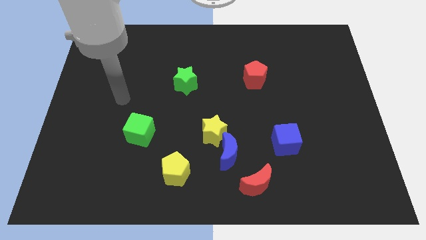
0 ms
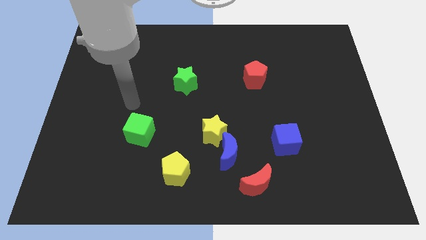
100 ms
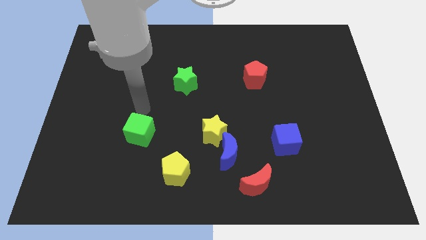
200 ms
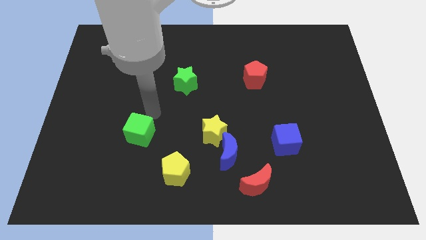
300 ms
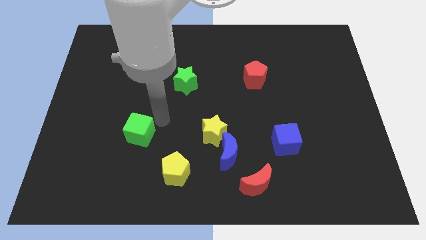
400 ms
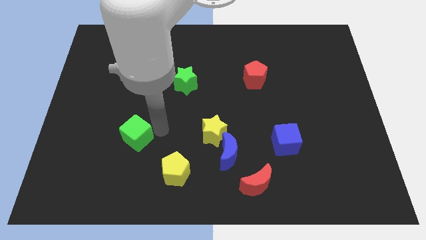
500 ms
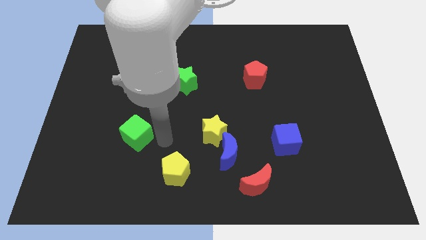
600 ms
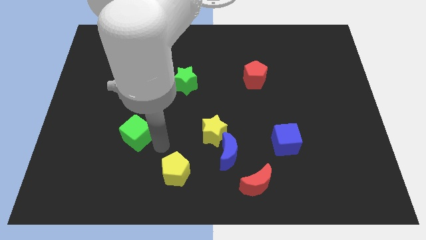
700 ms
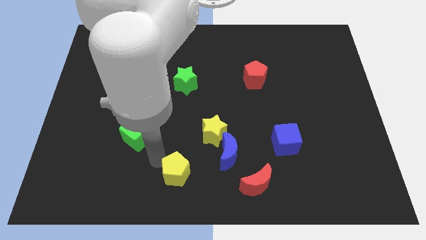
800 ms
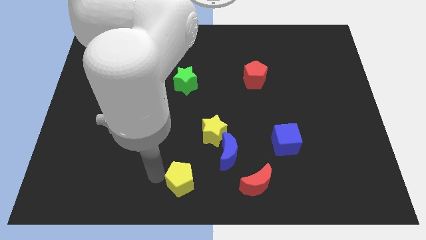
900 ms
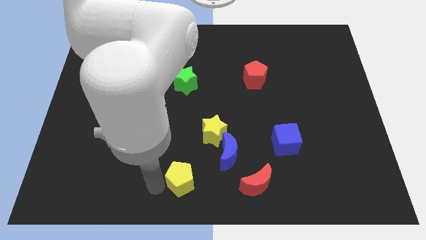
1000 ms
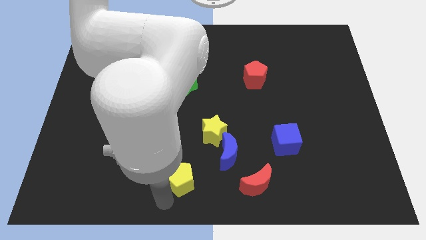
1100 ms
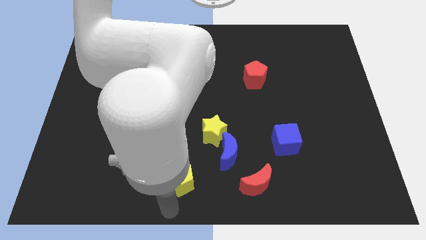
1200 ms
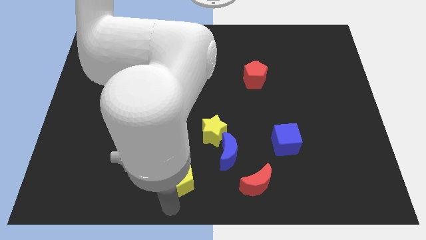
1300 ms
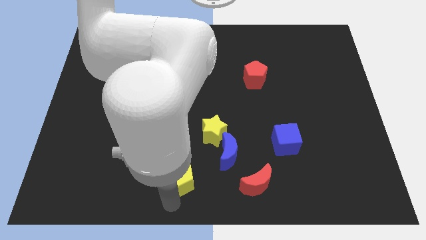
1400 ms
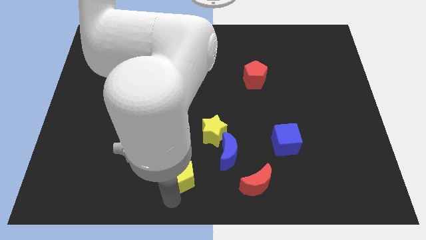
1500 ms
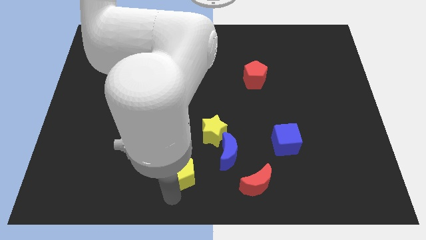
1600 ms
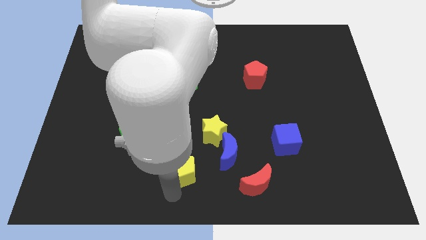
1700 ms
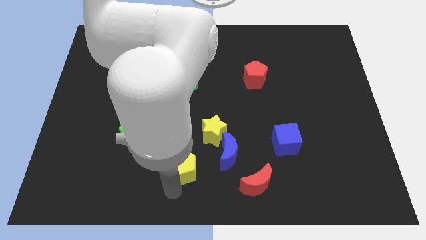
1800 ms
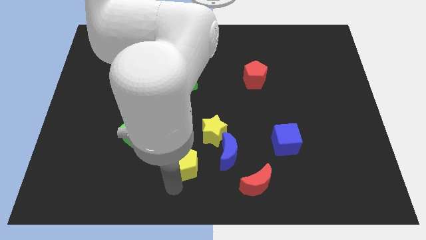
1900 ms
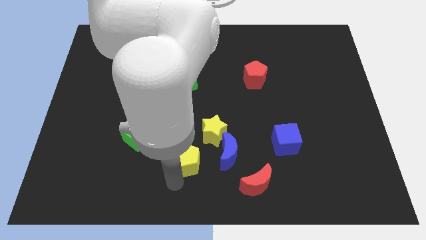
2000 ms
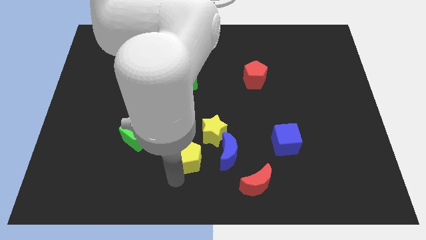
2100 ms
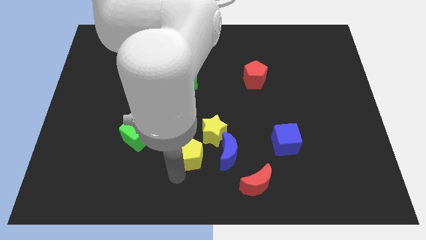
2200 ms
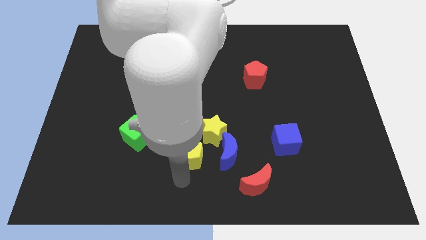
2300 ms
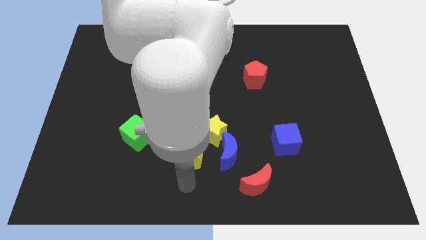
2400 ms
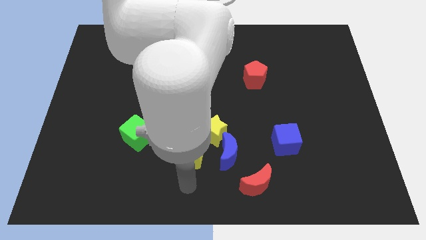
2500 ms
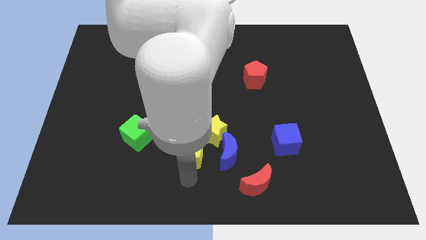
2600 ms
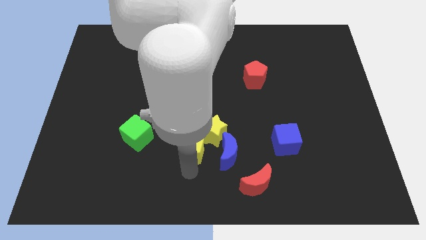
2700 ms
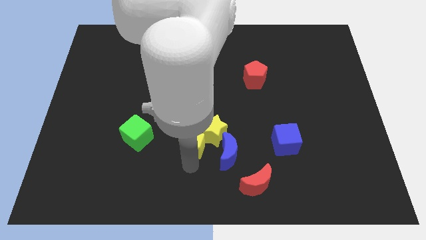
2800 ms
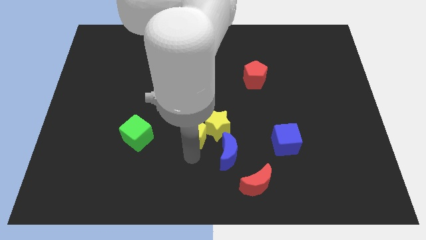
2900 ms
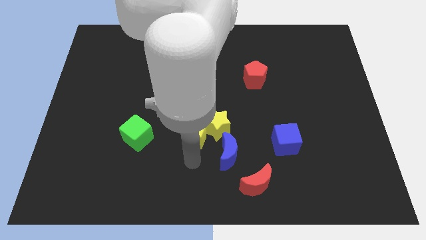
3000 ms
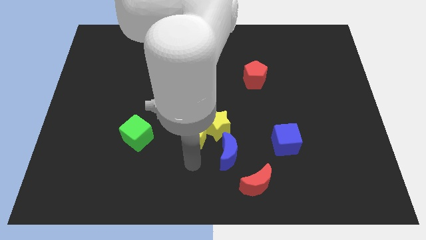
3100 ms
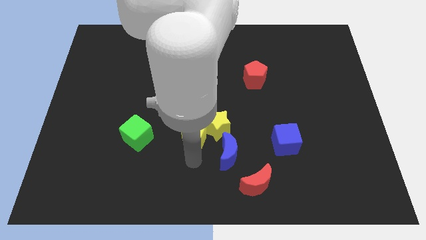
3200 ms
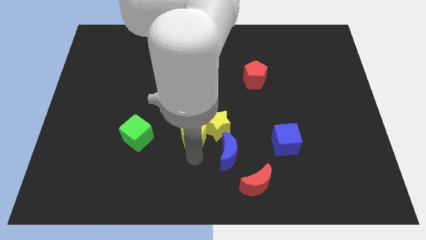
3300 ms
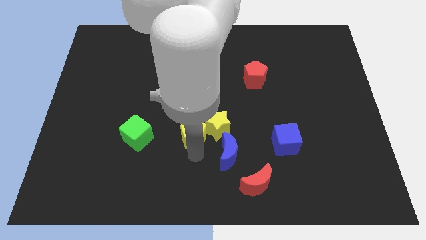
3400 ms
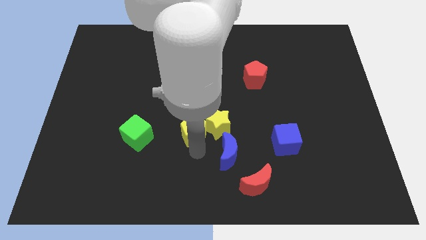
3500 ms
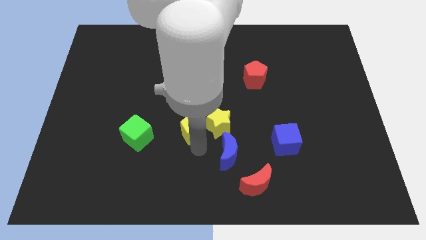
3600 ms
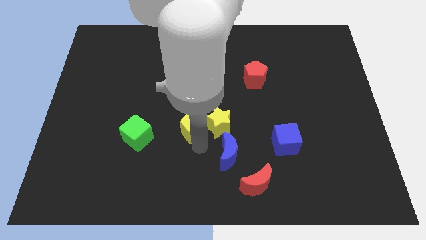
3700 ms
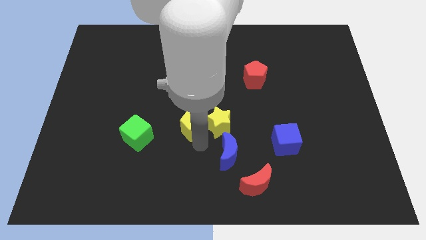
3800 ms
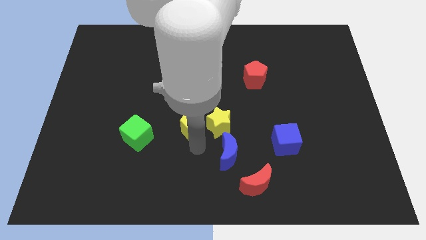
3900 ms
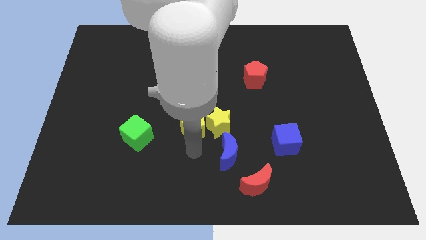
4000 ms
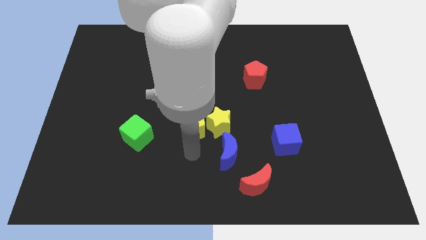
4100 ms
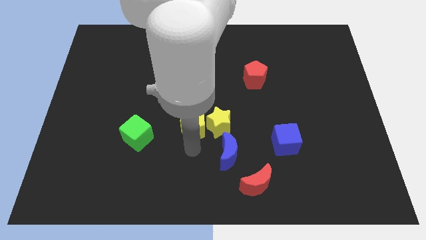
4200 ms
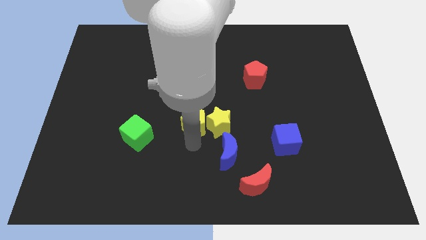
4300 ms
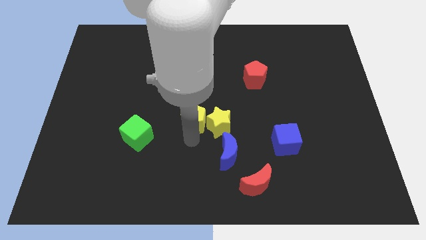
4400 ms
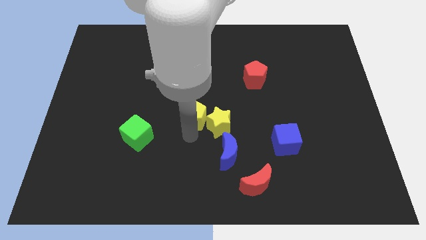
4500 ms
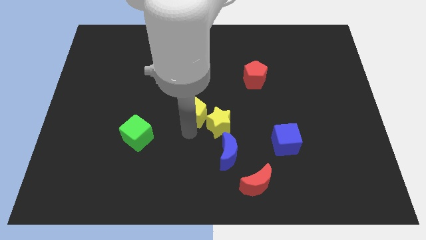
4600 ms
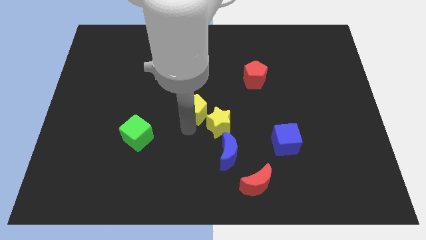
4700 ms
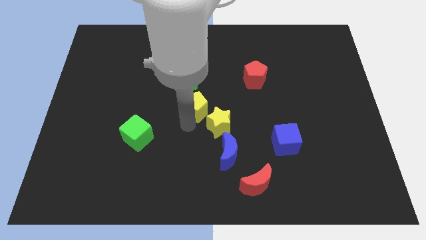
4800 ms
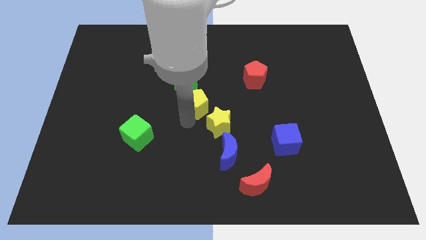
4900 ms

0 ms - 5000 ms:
put the yellow pentagon to the top of the yellow star

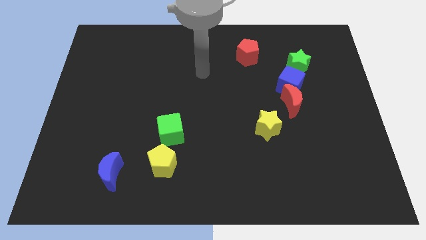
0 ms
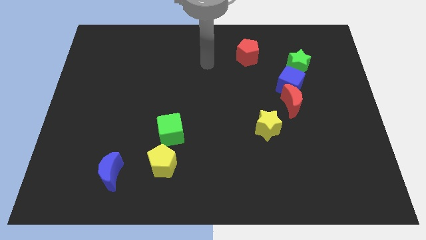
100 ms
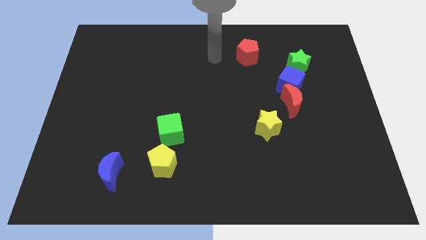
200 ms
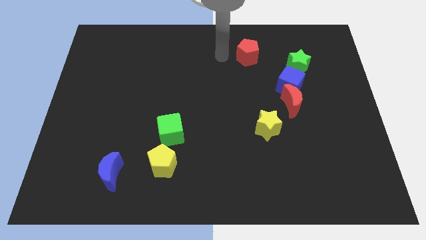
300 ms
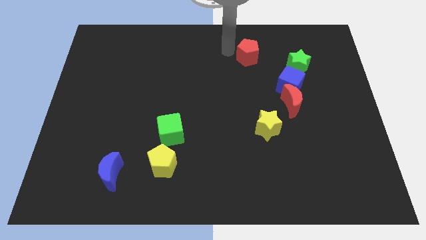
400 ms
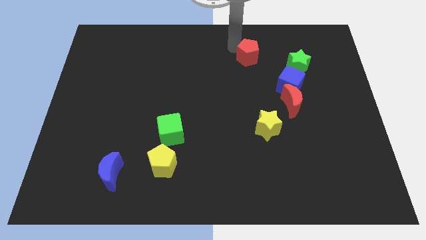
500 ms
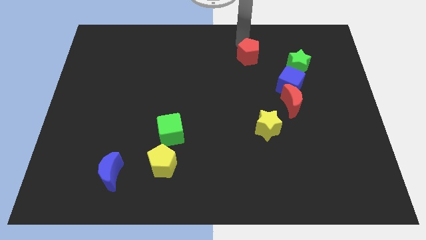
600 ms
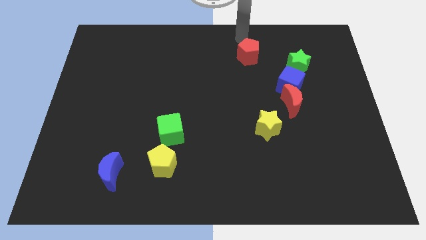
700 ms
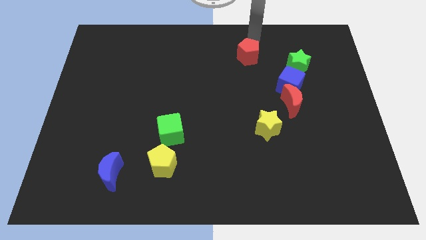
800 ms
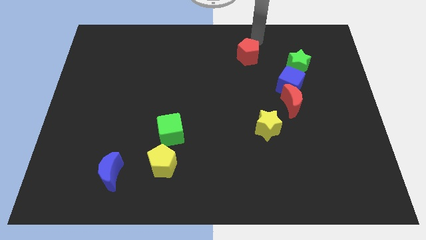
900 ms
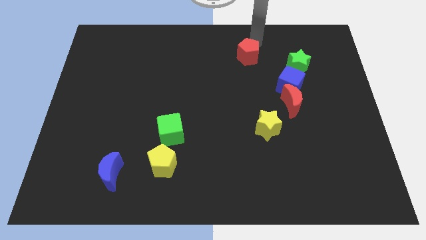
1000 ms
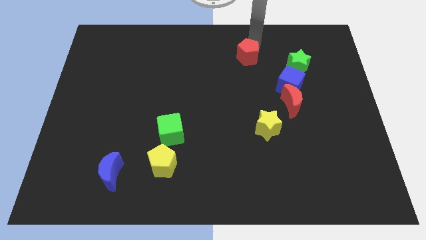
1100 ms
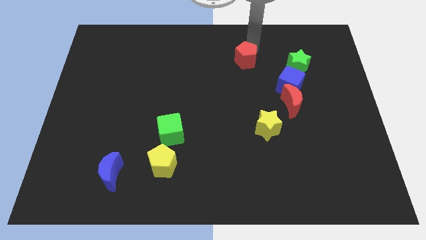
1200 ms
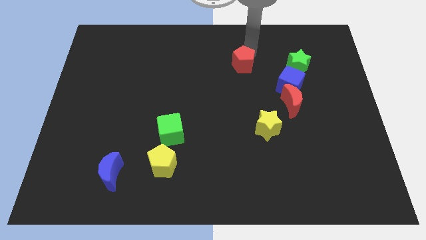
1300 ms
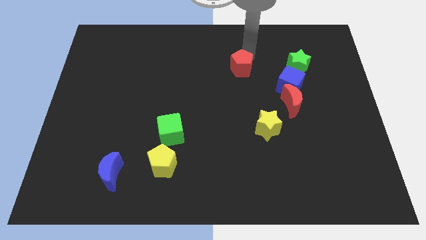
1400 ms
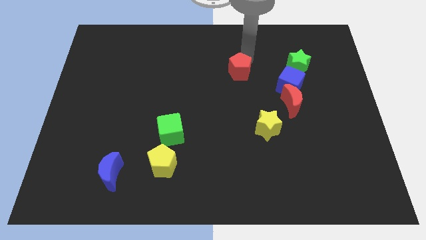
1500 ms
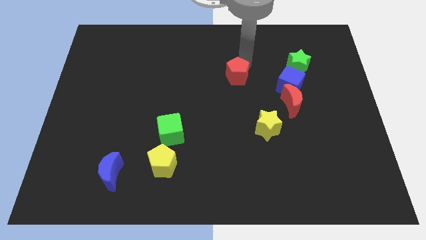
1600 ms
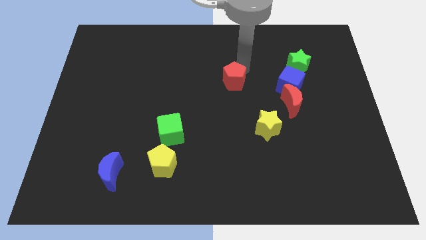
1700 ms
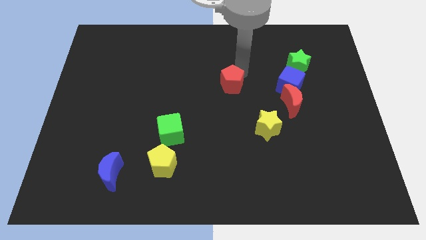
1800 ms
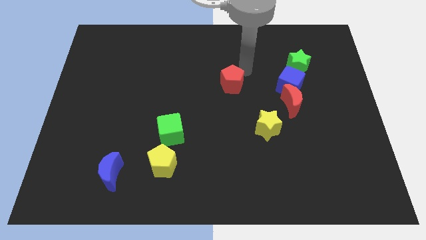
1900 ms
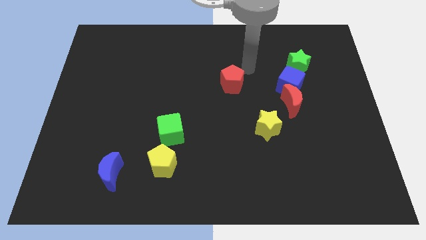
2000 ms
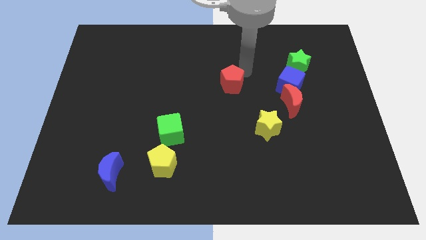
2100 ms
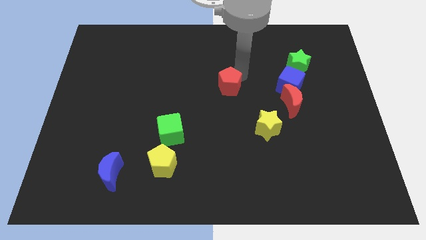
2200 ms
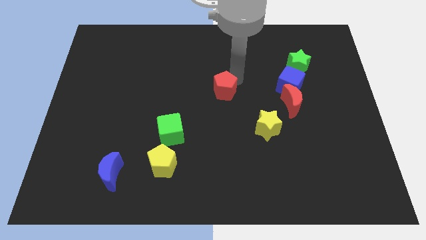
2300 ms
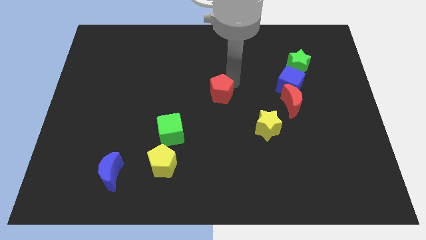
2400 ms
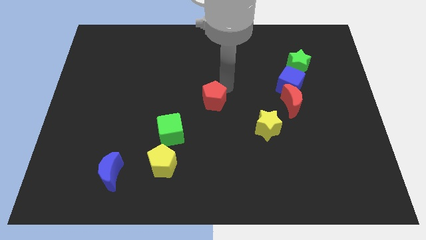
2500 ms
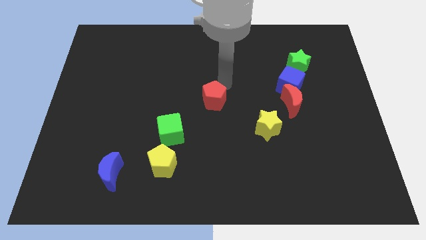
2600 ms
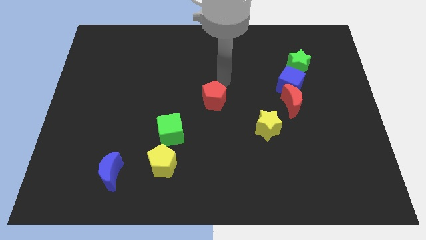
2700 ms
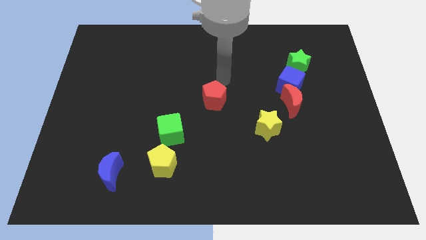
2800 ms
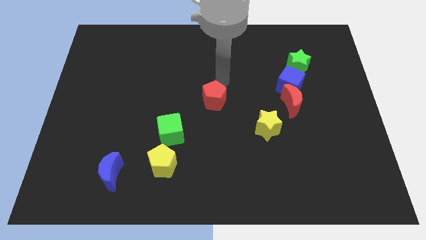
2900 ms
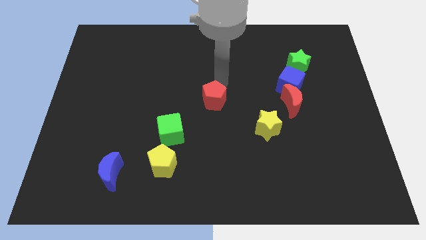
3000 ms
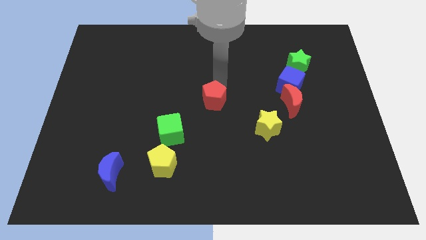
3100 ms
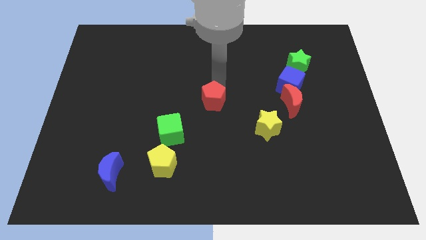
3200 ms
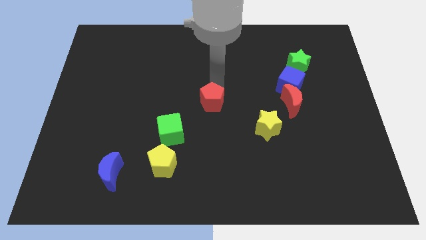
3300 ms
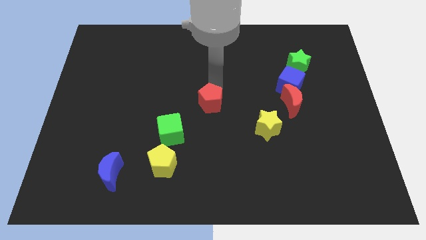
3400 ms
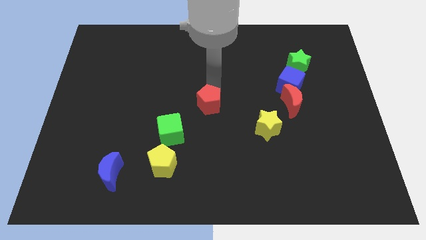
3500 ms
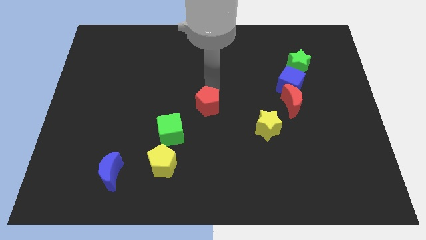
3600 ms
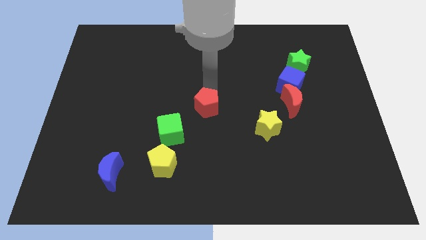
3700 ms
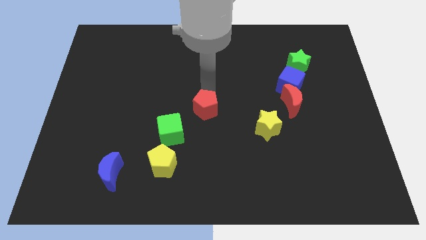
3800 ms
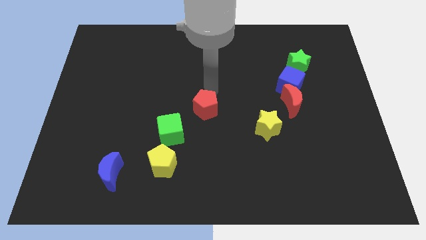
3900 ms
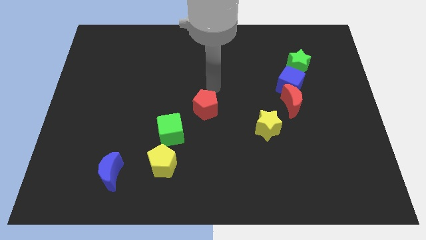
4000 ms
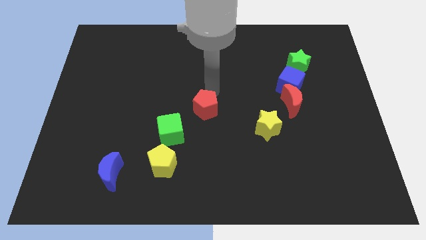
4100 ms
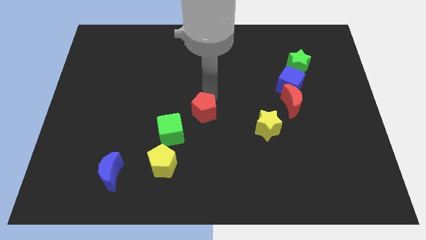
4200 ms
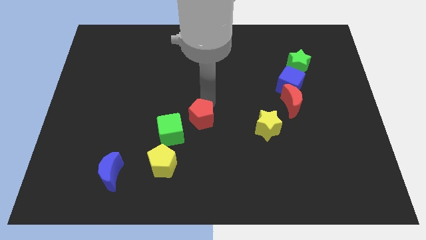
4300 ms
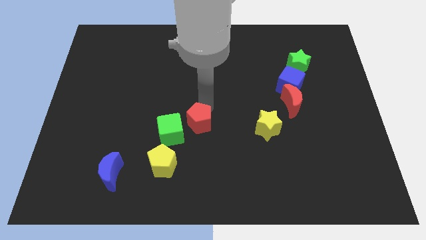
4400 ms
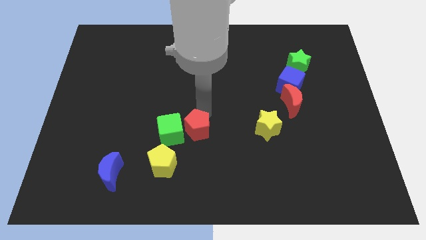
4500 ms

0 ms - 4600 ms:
push the red pentagon to the top right side of the yellow pentagon
